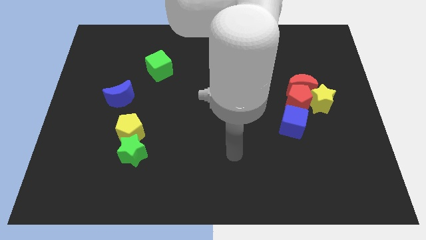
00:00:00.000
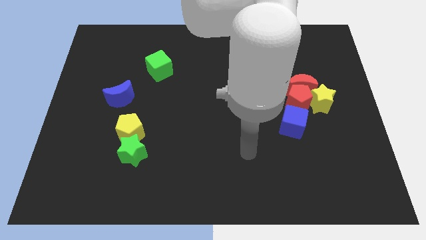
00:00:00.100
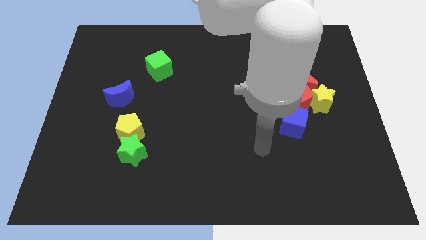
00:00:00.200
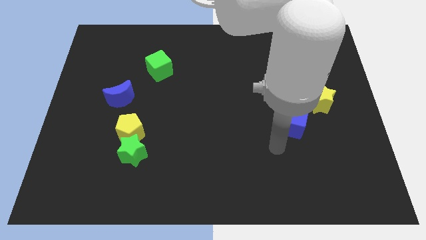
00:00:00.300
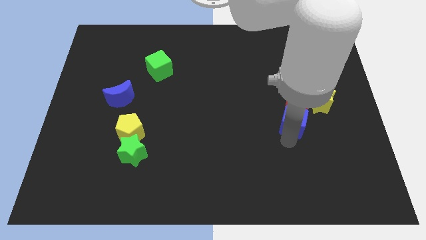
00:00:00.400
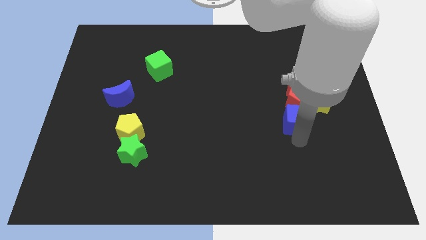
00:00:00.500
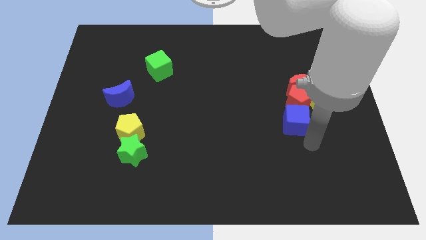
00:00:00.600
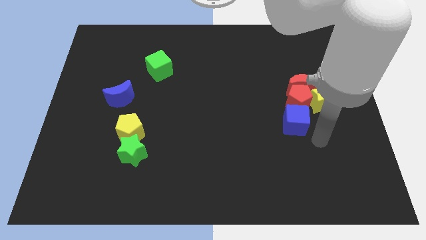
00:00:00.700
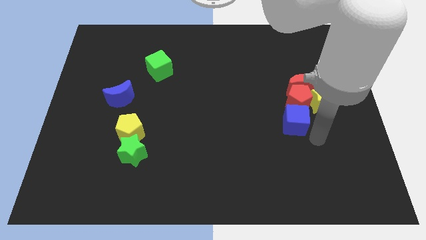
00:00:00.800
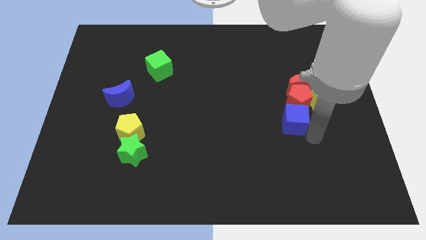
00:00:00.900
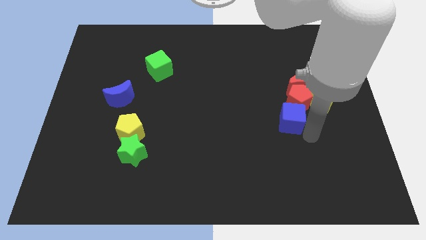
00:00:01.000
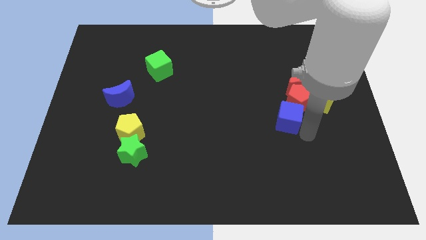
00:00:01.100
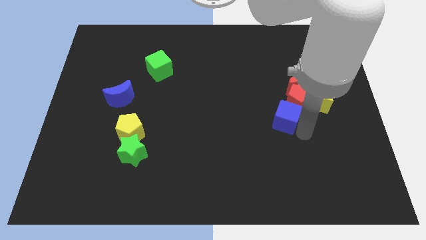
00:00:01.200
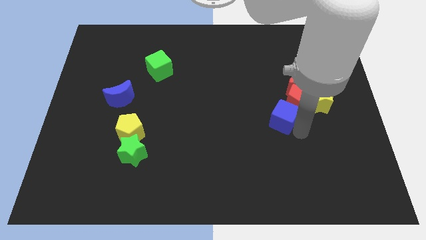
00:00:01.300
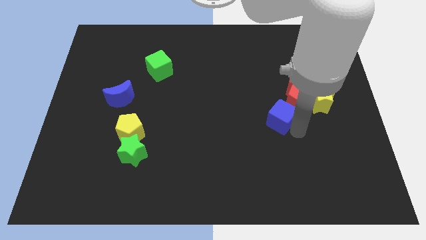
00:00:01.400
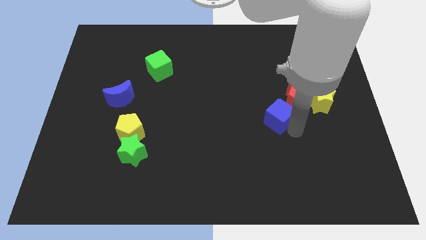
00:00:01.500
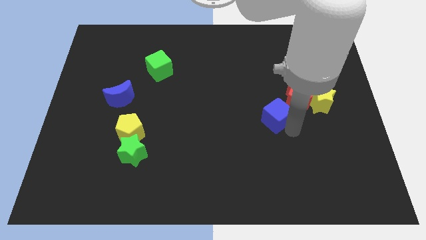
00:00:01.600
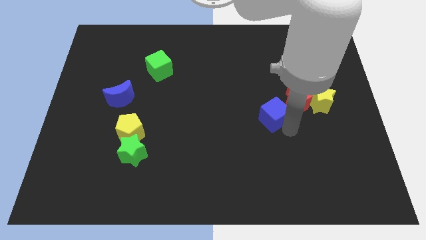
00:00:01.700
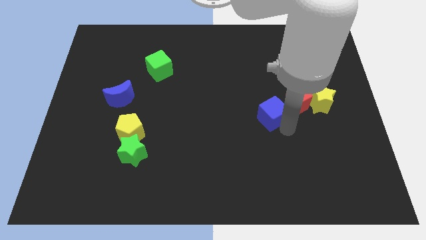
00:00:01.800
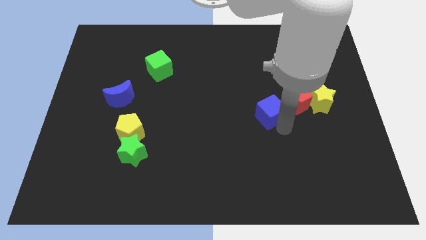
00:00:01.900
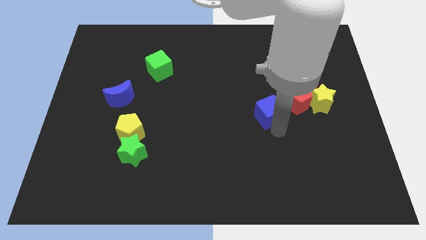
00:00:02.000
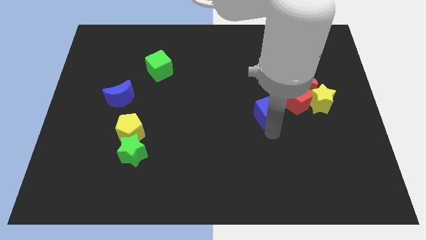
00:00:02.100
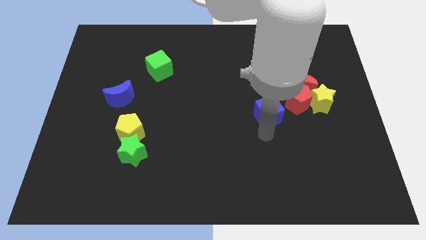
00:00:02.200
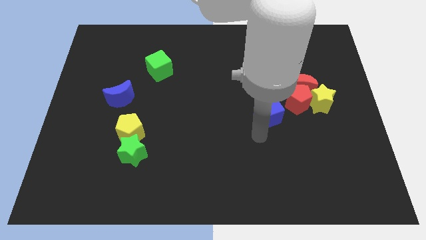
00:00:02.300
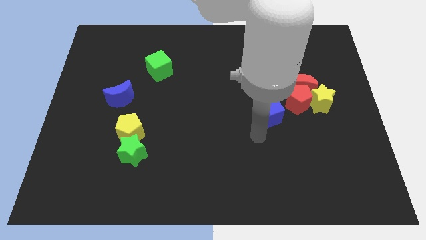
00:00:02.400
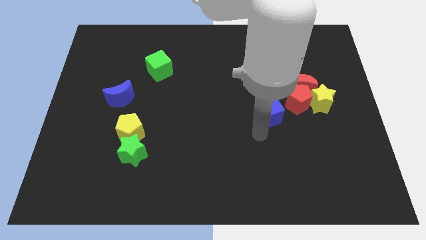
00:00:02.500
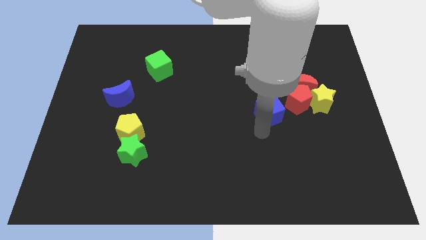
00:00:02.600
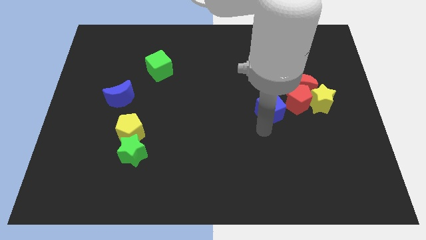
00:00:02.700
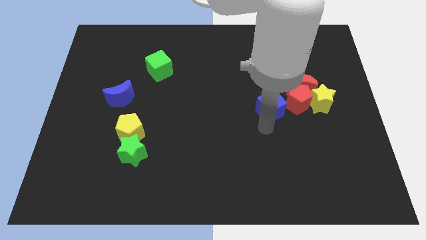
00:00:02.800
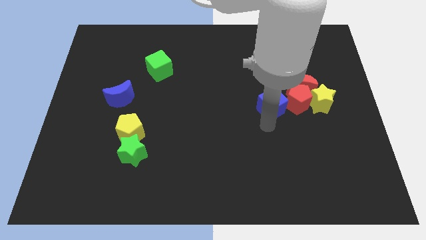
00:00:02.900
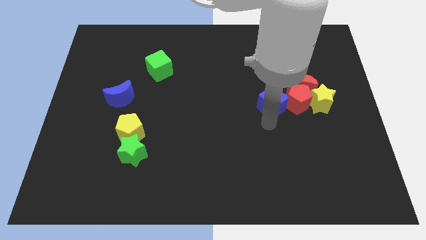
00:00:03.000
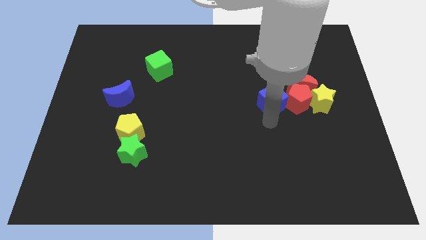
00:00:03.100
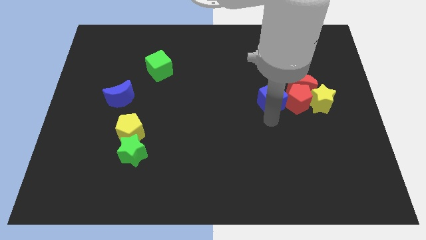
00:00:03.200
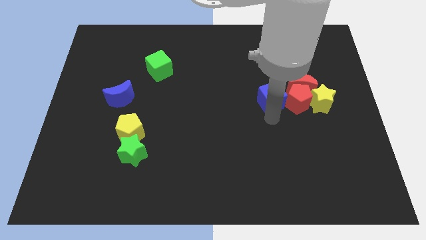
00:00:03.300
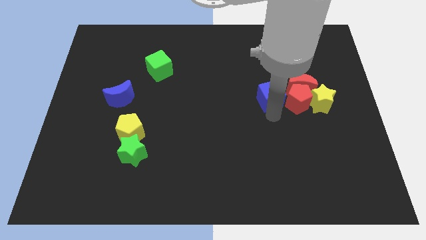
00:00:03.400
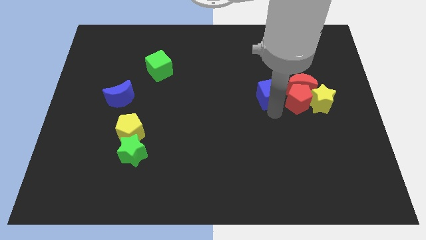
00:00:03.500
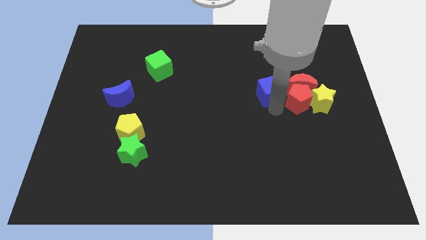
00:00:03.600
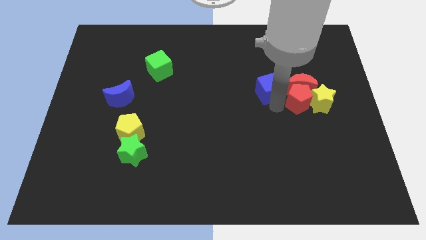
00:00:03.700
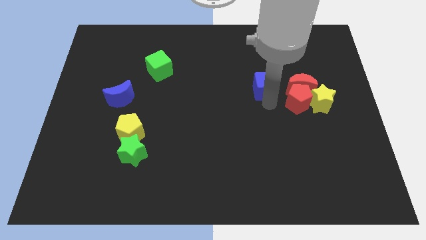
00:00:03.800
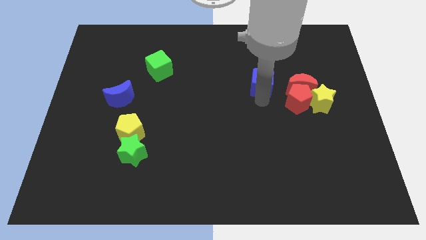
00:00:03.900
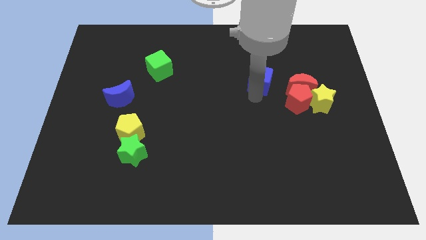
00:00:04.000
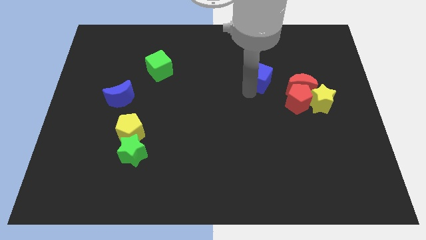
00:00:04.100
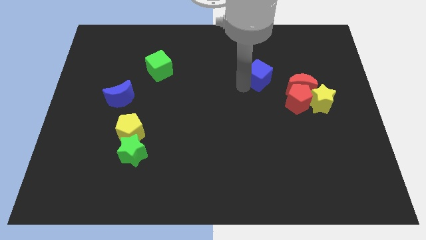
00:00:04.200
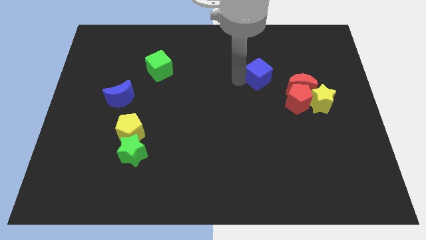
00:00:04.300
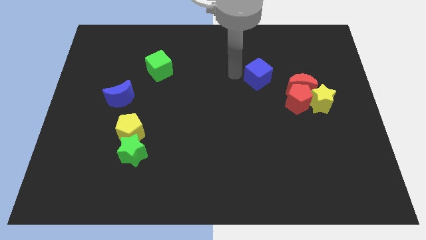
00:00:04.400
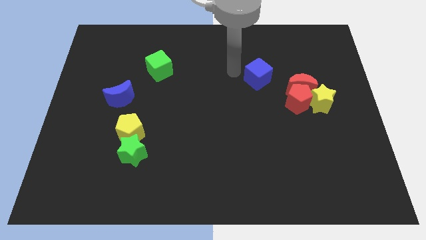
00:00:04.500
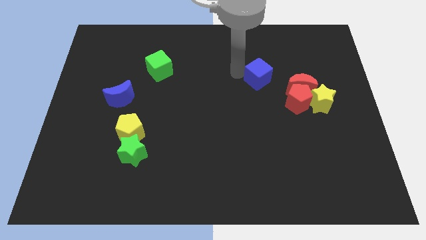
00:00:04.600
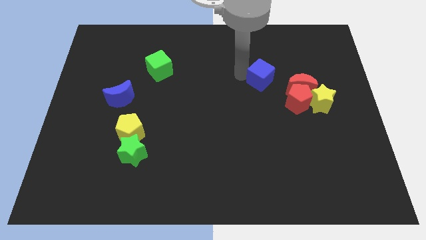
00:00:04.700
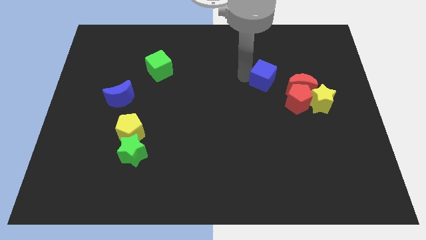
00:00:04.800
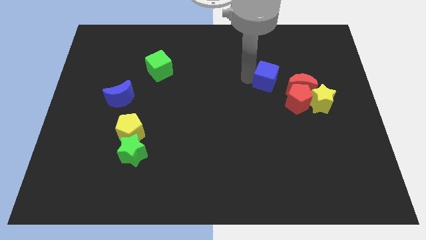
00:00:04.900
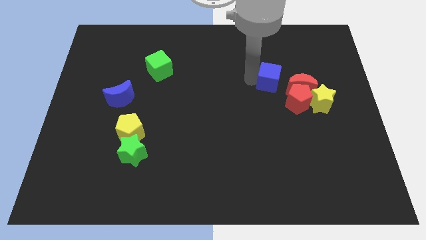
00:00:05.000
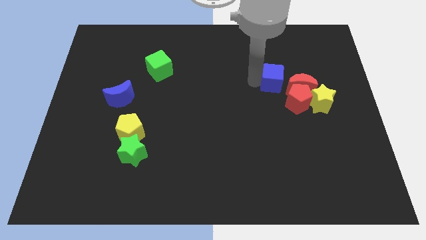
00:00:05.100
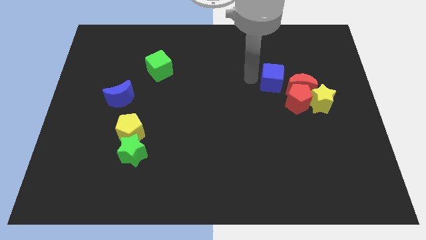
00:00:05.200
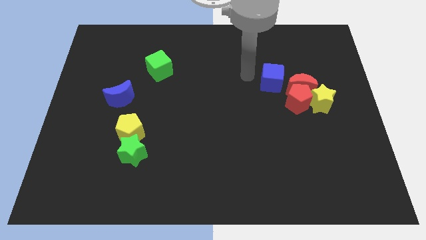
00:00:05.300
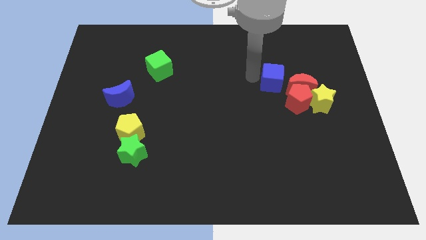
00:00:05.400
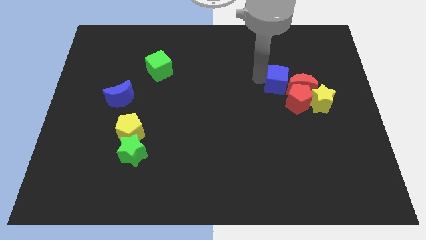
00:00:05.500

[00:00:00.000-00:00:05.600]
move the blue cube close to the red moon

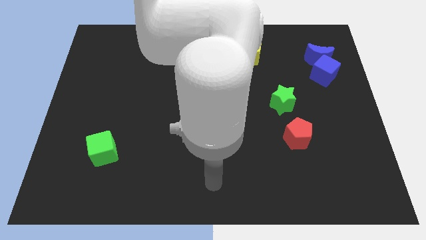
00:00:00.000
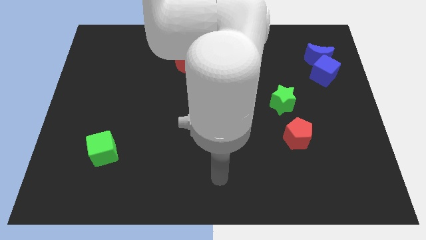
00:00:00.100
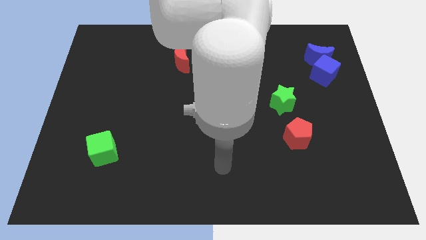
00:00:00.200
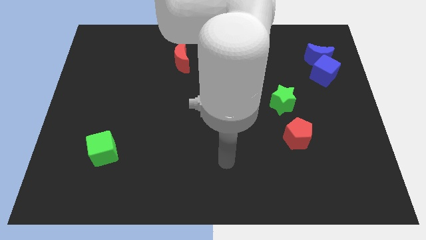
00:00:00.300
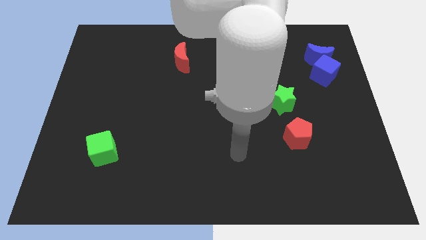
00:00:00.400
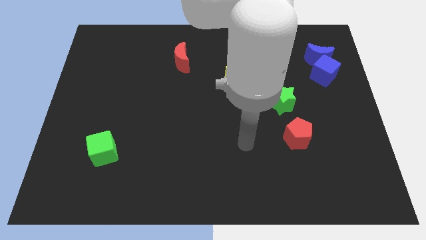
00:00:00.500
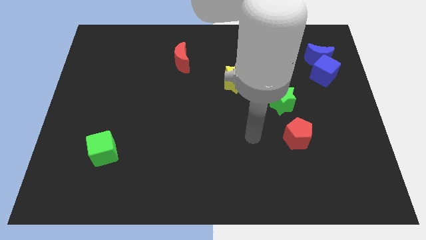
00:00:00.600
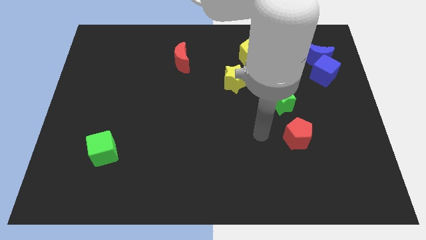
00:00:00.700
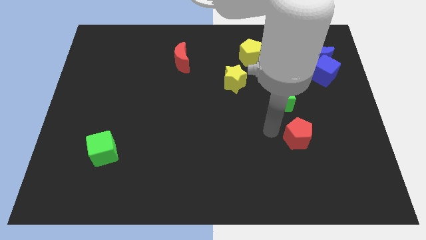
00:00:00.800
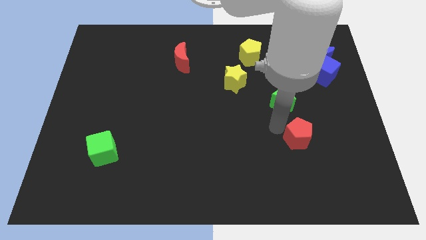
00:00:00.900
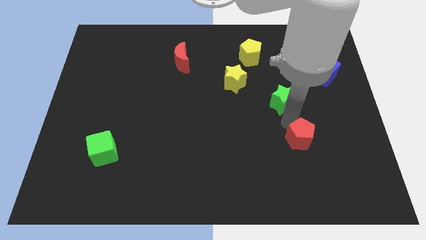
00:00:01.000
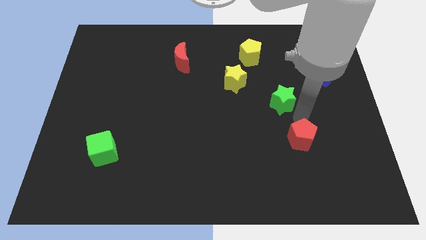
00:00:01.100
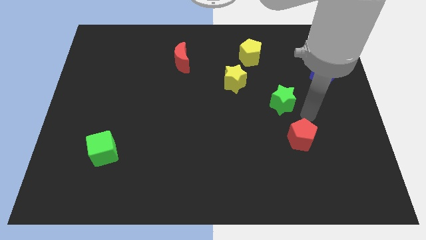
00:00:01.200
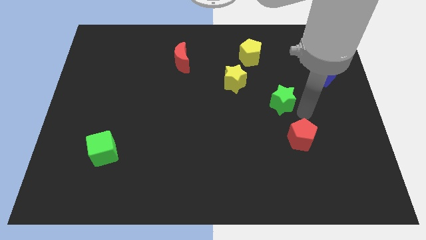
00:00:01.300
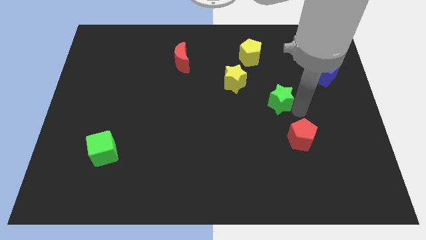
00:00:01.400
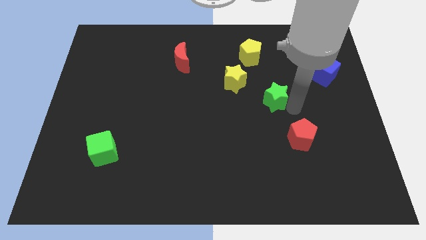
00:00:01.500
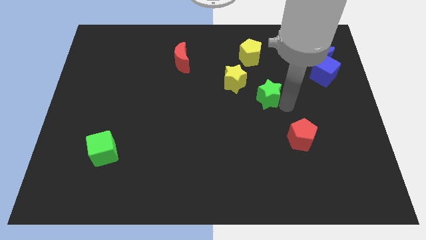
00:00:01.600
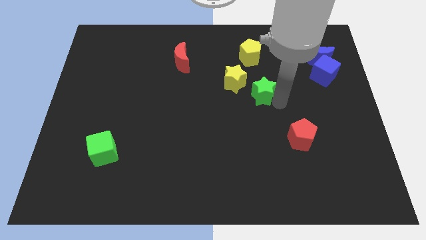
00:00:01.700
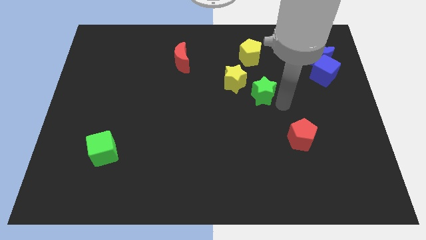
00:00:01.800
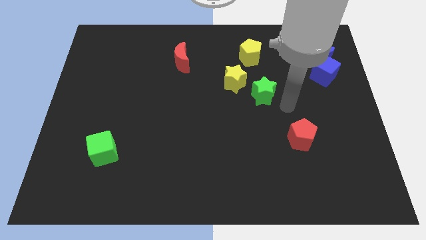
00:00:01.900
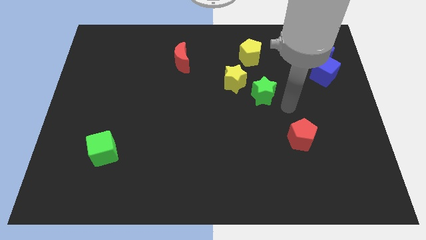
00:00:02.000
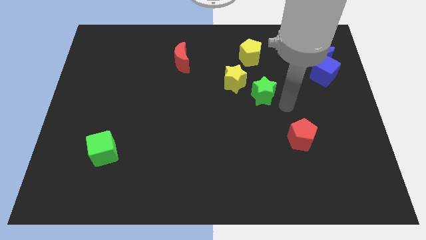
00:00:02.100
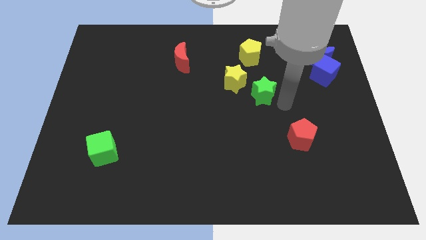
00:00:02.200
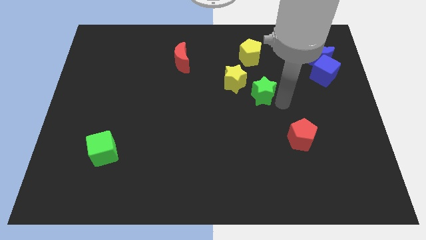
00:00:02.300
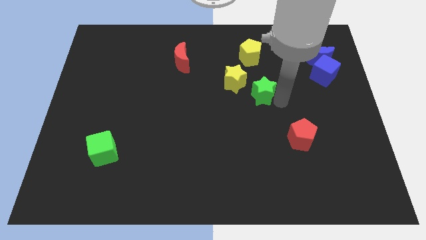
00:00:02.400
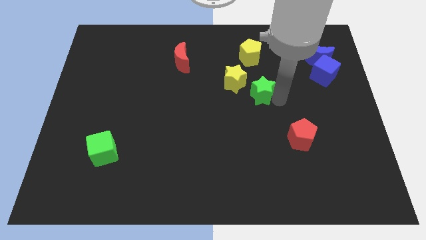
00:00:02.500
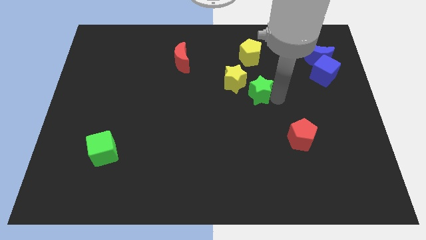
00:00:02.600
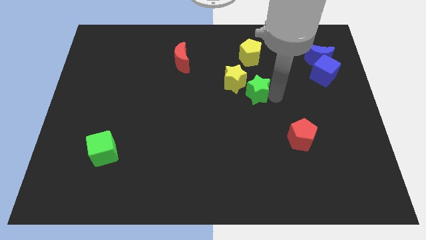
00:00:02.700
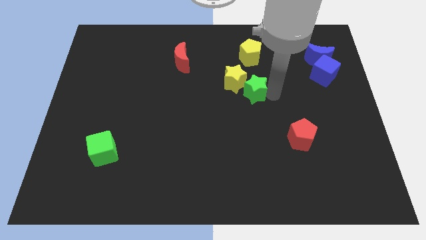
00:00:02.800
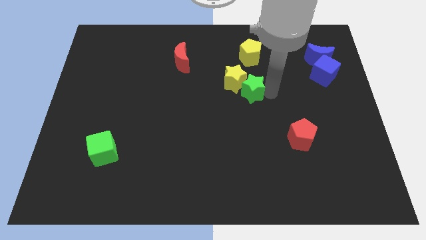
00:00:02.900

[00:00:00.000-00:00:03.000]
move the green star to the yellow star
